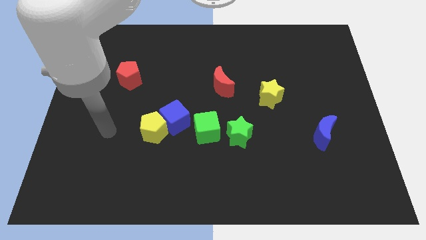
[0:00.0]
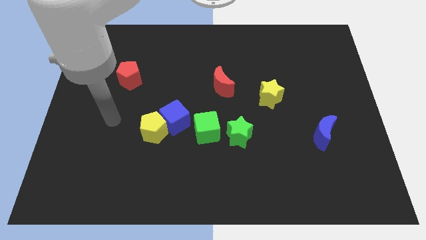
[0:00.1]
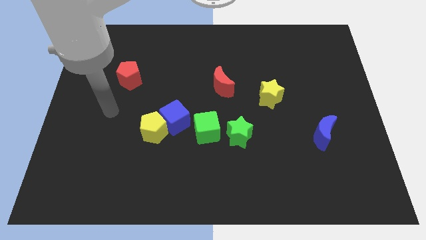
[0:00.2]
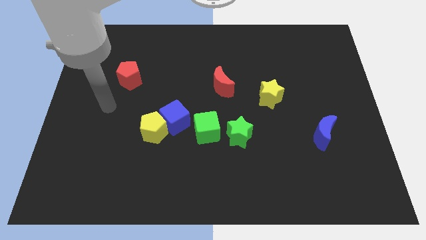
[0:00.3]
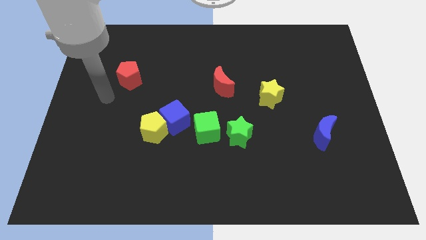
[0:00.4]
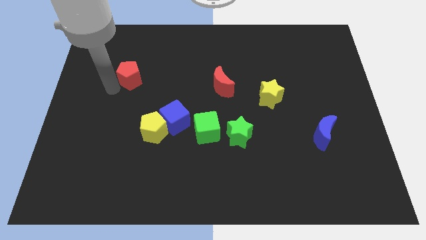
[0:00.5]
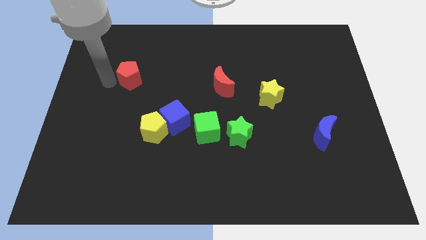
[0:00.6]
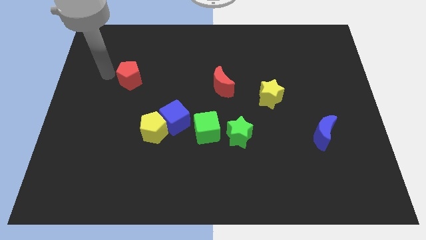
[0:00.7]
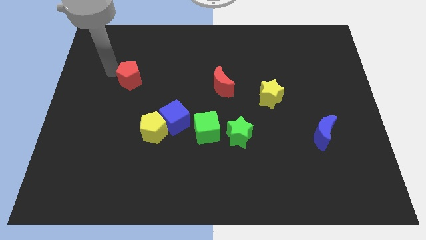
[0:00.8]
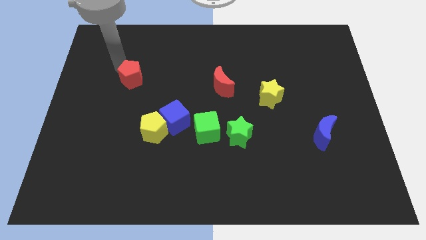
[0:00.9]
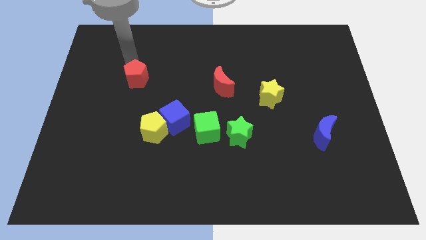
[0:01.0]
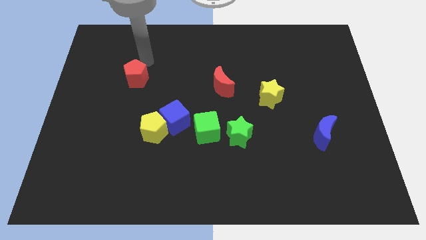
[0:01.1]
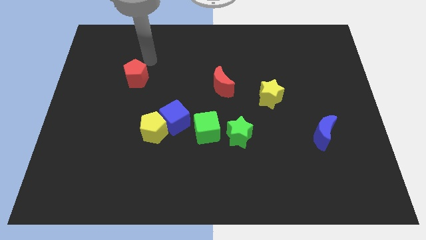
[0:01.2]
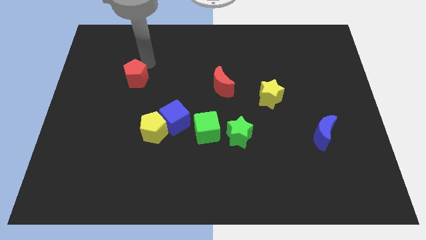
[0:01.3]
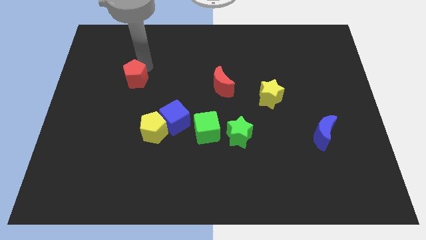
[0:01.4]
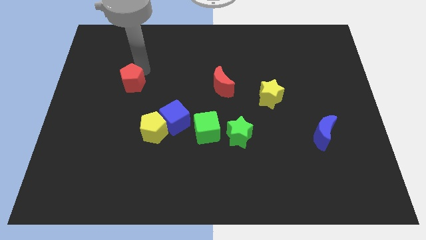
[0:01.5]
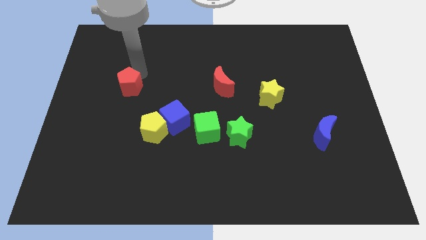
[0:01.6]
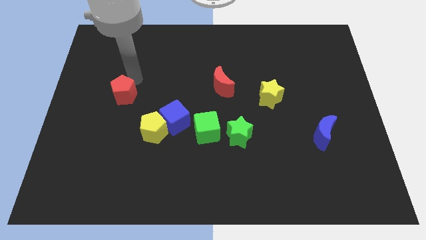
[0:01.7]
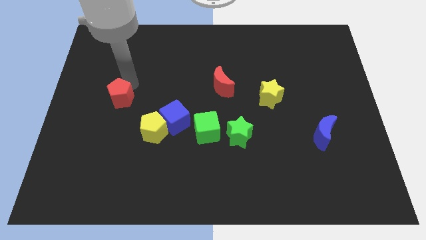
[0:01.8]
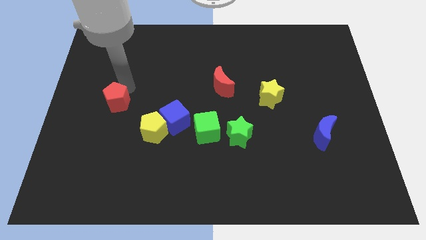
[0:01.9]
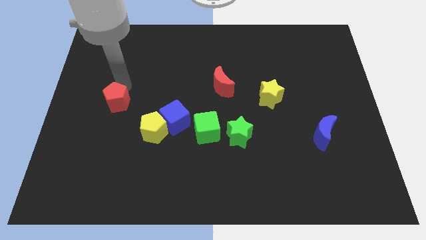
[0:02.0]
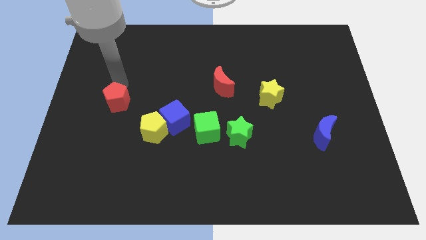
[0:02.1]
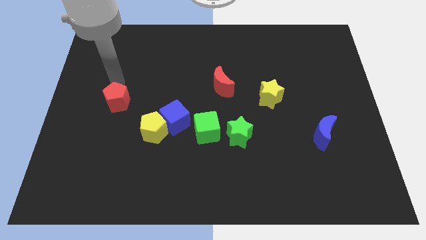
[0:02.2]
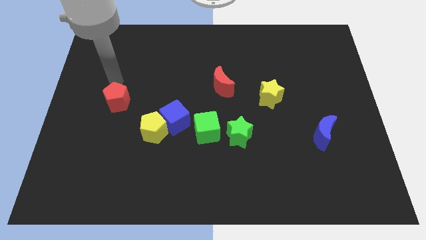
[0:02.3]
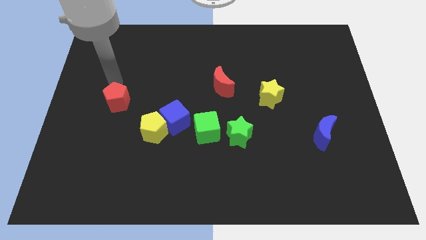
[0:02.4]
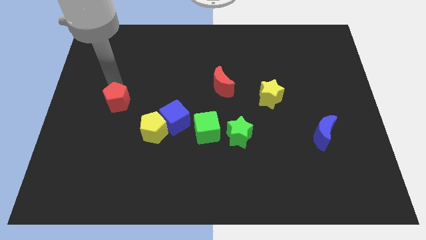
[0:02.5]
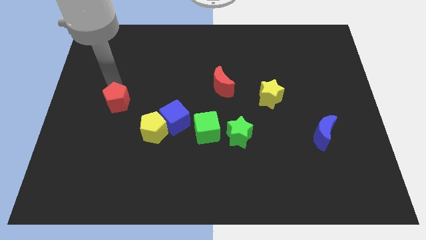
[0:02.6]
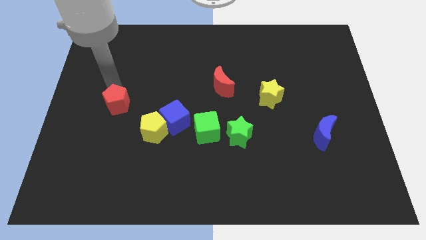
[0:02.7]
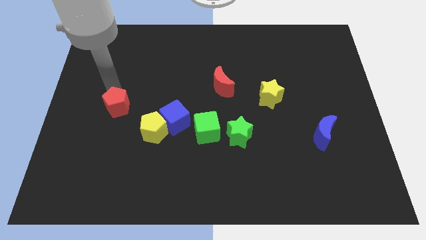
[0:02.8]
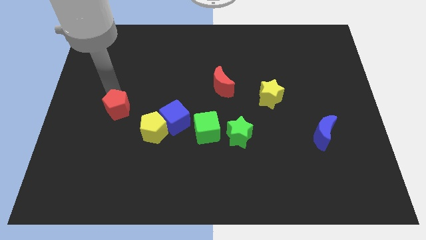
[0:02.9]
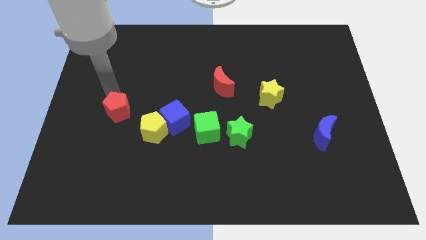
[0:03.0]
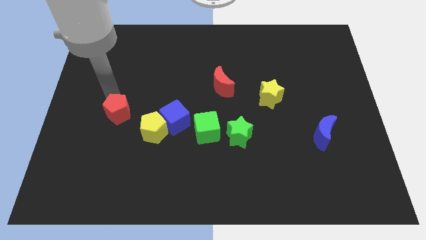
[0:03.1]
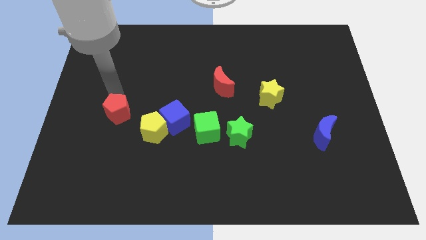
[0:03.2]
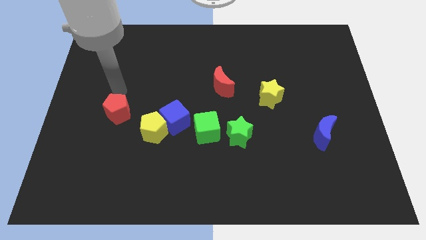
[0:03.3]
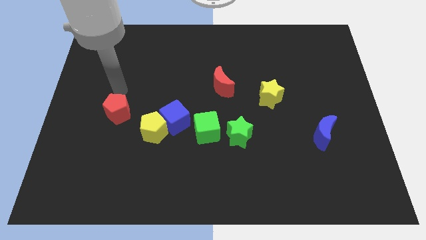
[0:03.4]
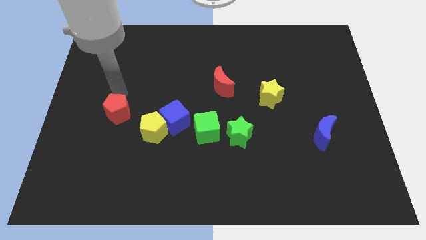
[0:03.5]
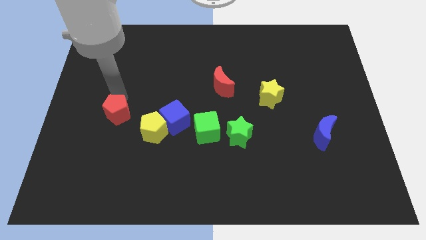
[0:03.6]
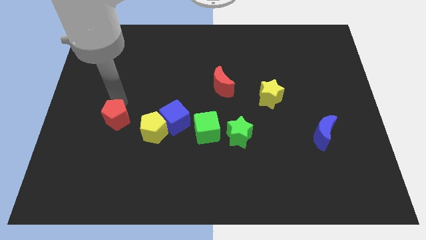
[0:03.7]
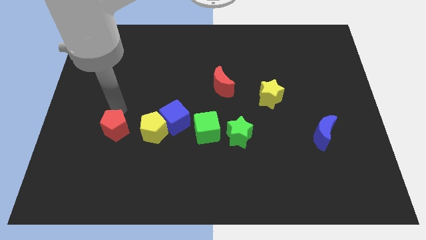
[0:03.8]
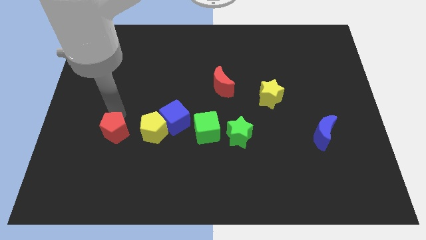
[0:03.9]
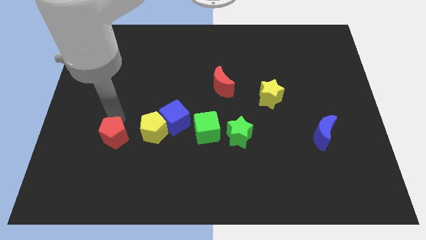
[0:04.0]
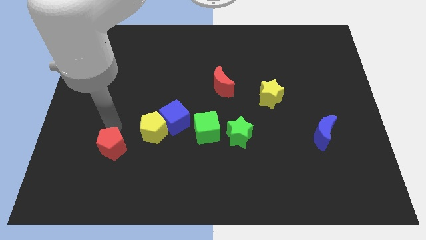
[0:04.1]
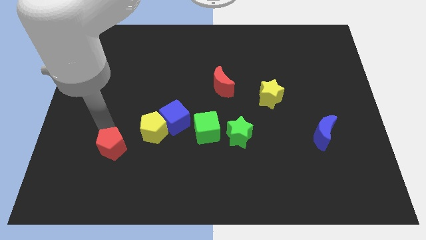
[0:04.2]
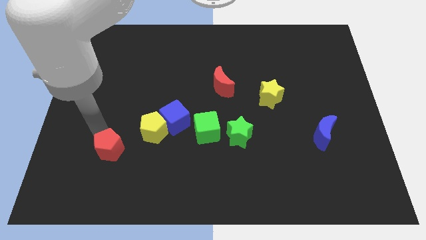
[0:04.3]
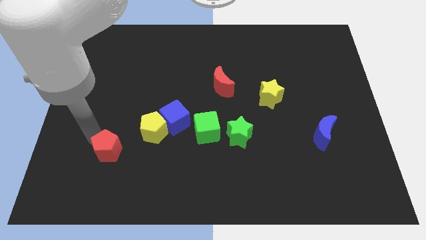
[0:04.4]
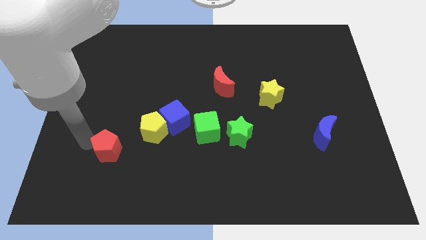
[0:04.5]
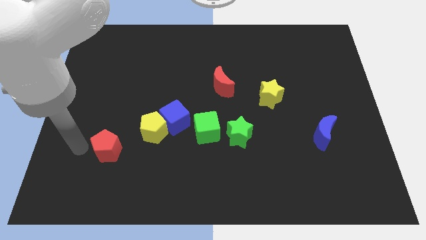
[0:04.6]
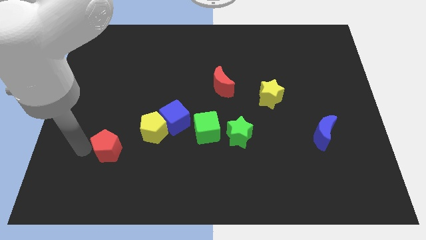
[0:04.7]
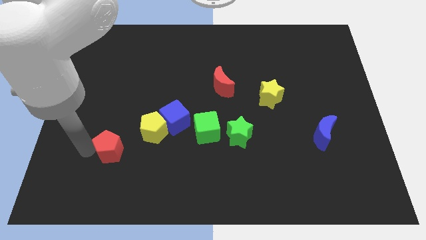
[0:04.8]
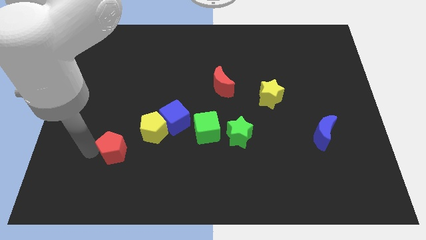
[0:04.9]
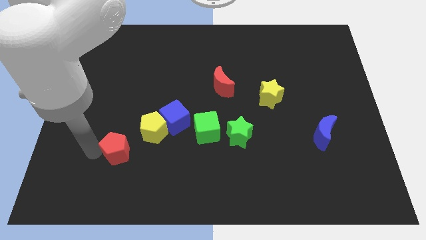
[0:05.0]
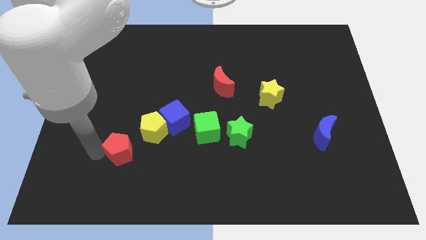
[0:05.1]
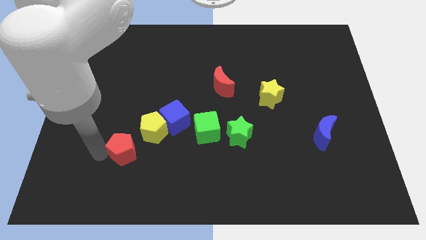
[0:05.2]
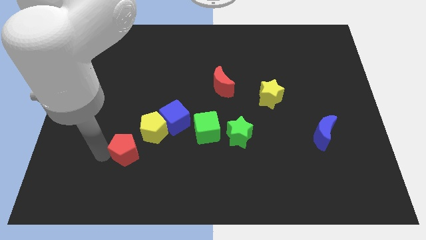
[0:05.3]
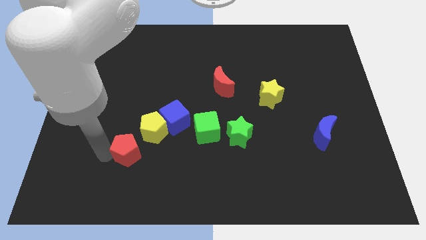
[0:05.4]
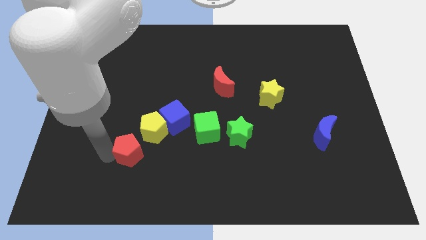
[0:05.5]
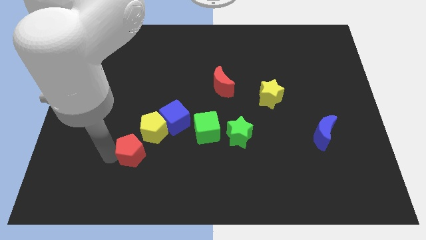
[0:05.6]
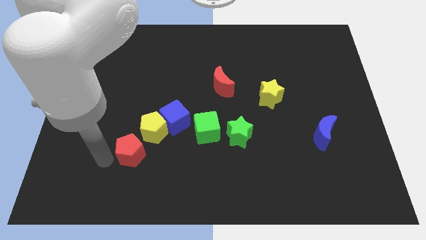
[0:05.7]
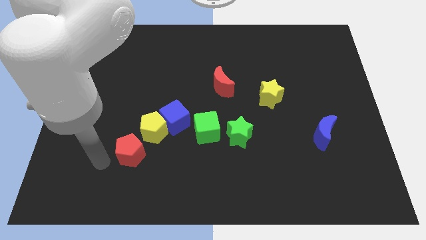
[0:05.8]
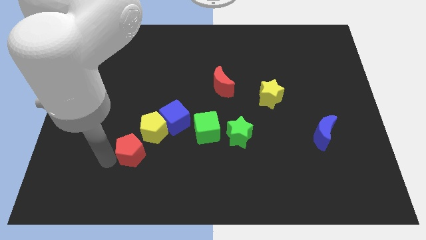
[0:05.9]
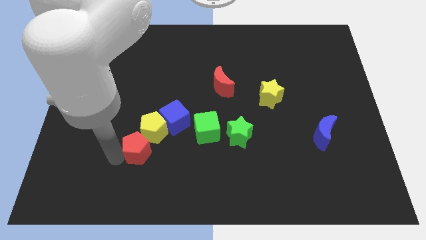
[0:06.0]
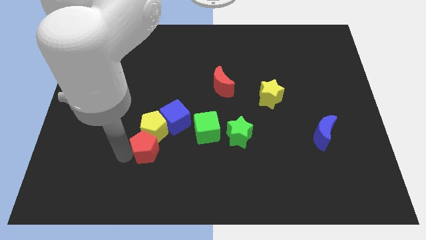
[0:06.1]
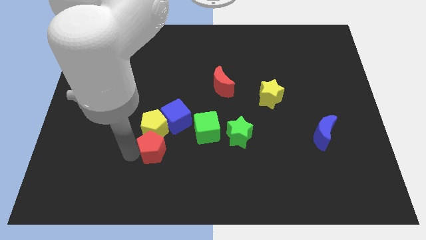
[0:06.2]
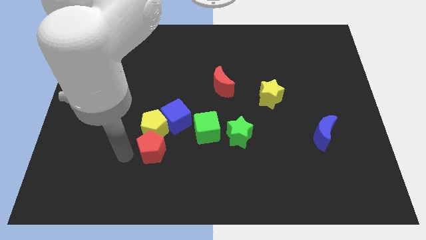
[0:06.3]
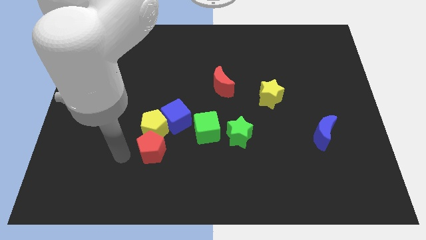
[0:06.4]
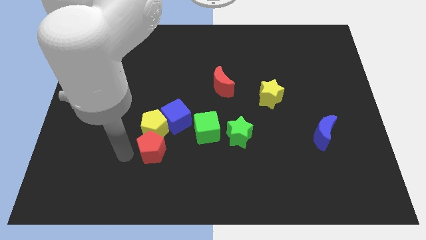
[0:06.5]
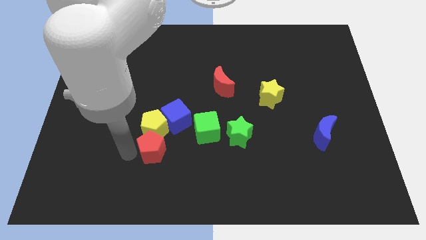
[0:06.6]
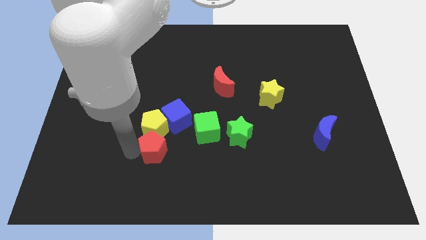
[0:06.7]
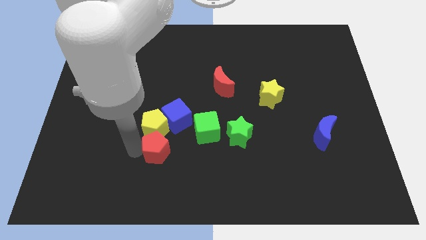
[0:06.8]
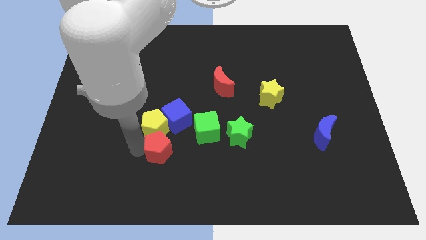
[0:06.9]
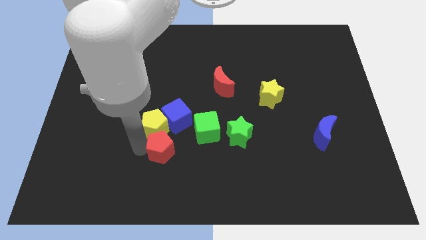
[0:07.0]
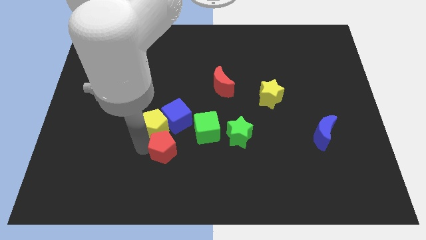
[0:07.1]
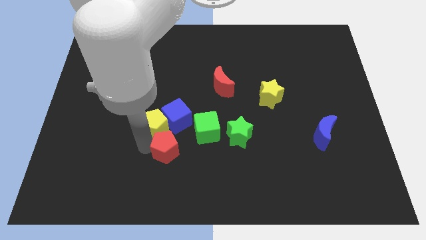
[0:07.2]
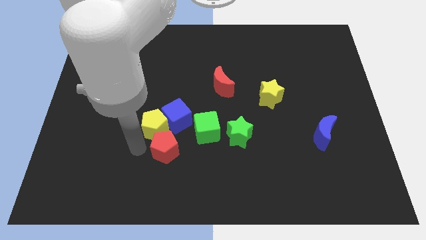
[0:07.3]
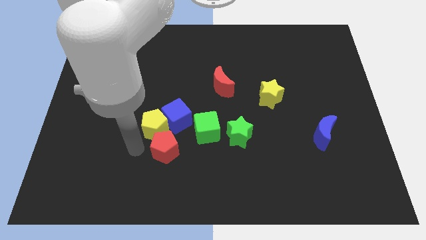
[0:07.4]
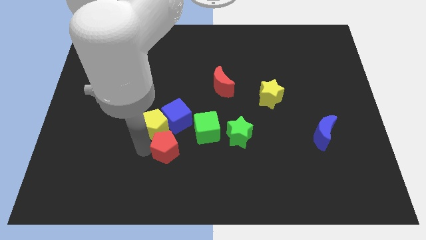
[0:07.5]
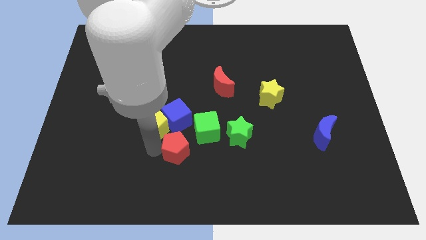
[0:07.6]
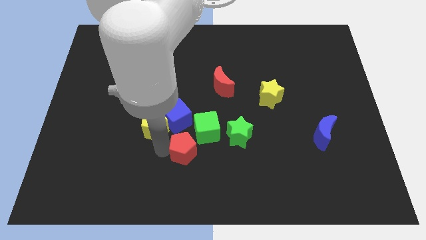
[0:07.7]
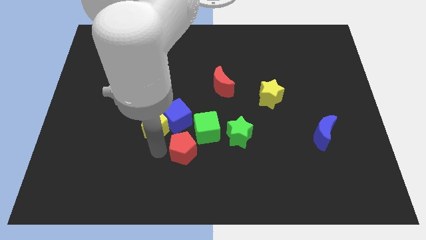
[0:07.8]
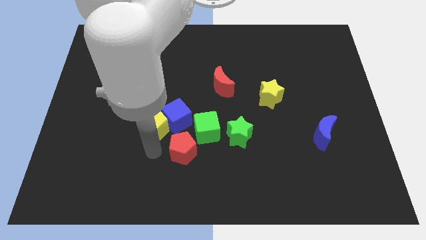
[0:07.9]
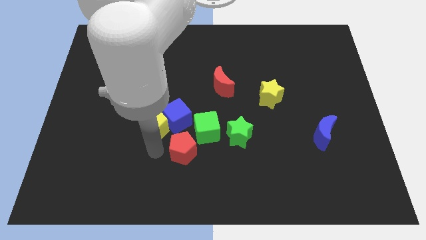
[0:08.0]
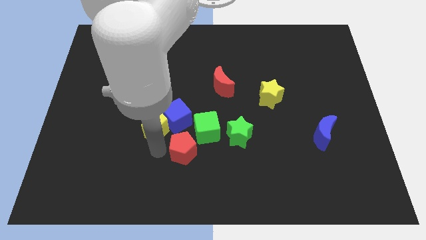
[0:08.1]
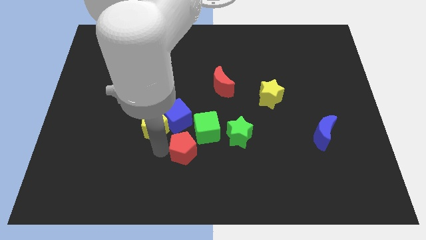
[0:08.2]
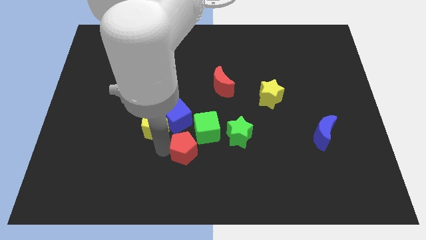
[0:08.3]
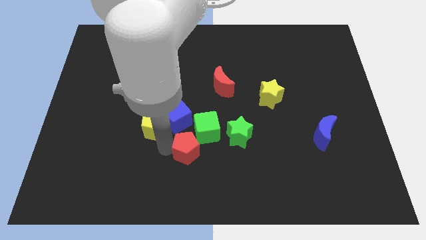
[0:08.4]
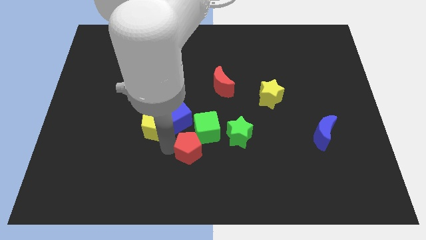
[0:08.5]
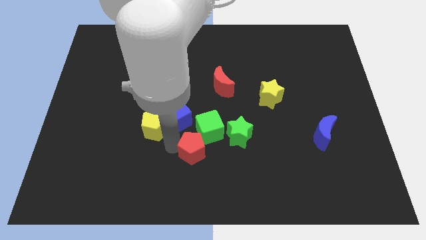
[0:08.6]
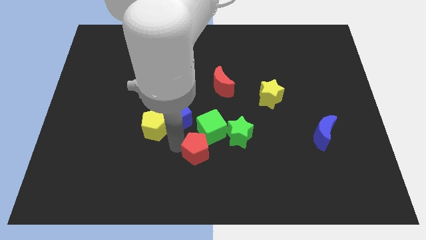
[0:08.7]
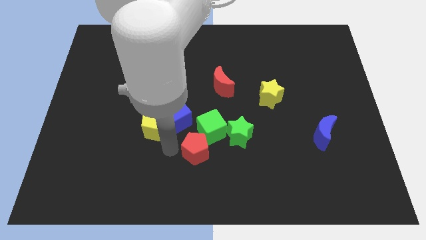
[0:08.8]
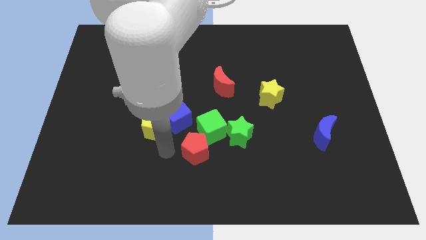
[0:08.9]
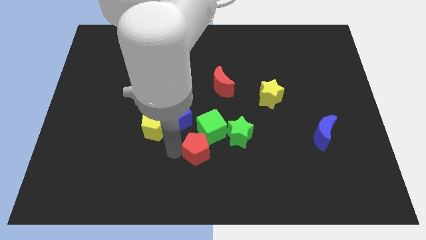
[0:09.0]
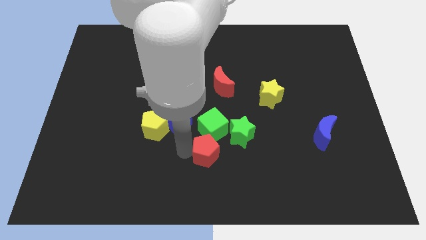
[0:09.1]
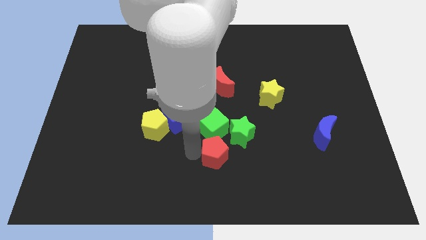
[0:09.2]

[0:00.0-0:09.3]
slide the red pentagon diagonally down and to the right of the green cube
